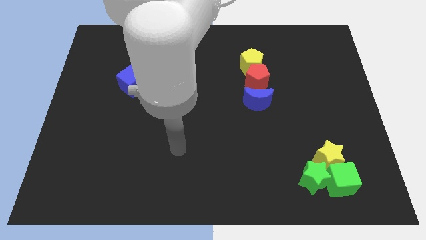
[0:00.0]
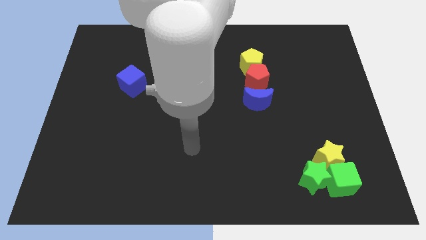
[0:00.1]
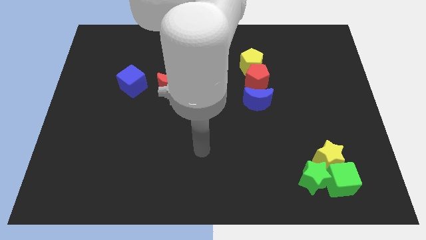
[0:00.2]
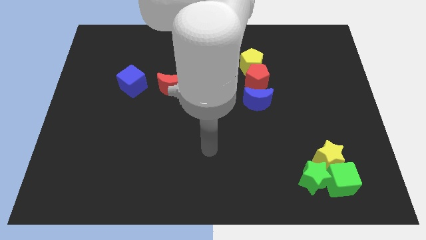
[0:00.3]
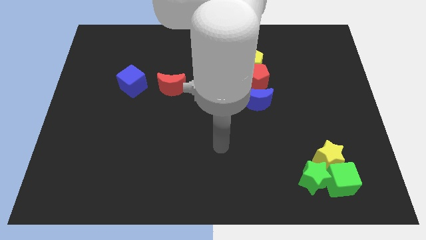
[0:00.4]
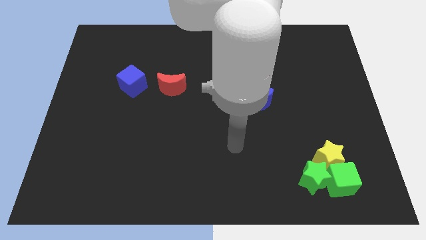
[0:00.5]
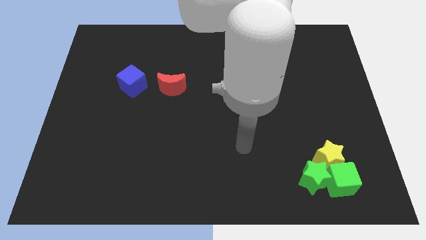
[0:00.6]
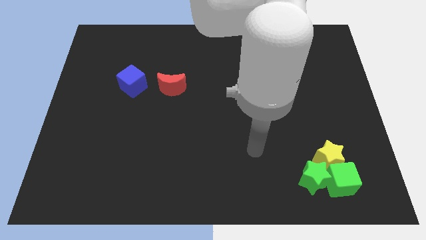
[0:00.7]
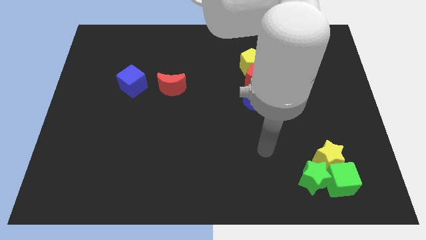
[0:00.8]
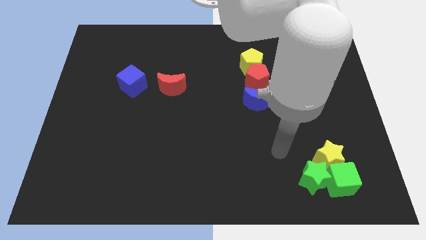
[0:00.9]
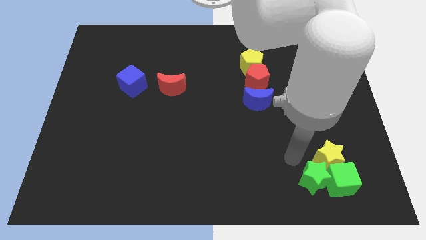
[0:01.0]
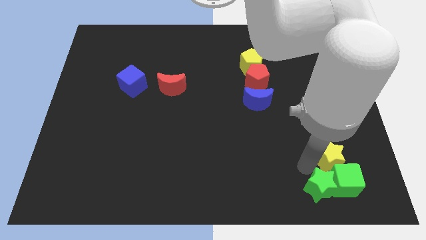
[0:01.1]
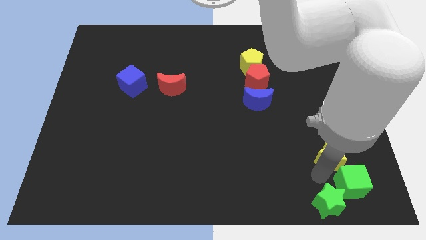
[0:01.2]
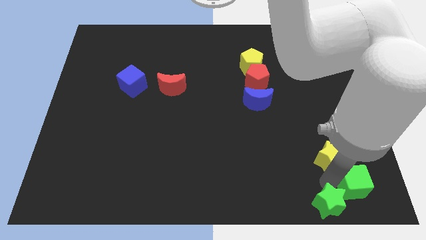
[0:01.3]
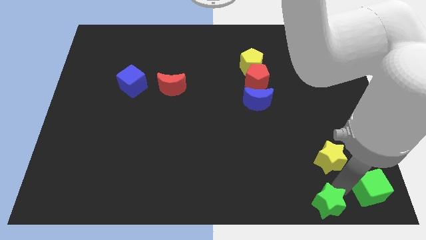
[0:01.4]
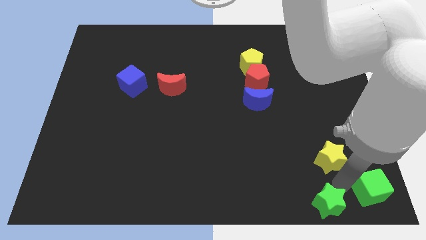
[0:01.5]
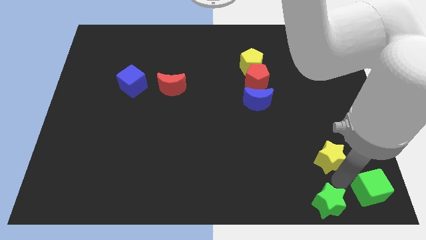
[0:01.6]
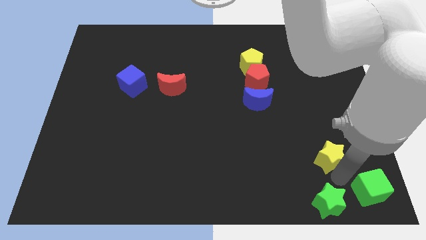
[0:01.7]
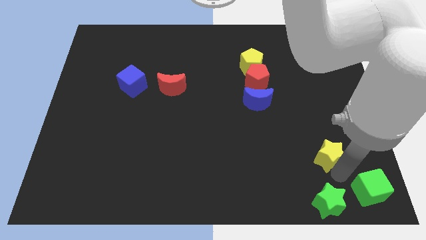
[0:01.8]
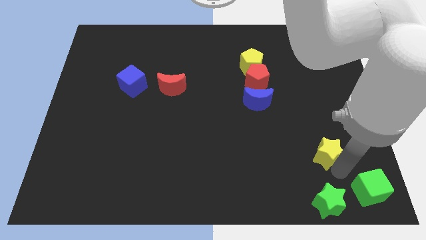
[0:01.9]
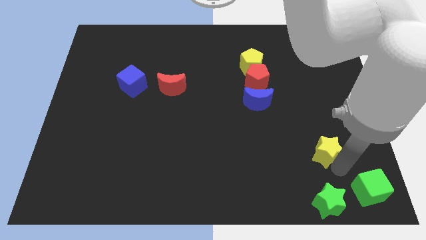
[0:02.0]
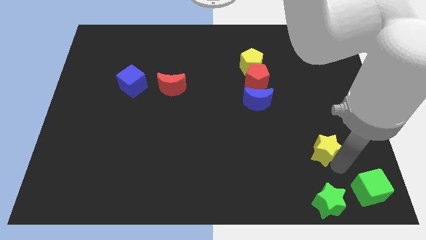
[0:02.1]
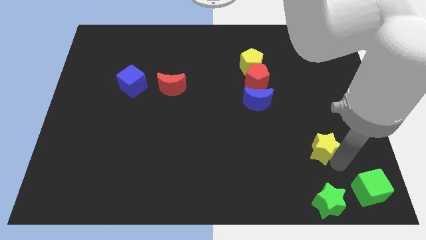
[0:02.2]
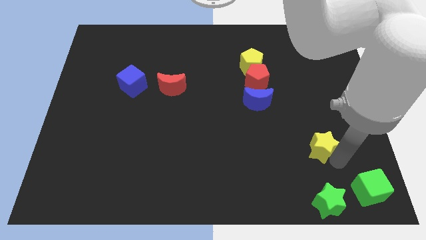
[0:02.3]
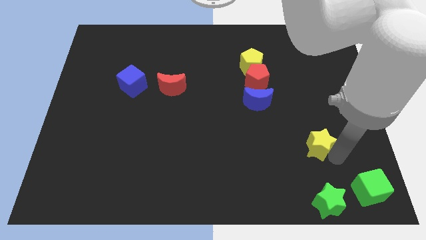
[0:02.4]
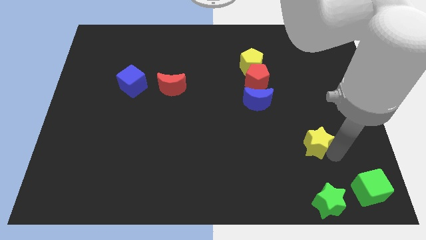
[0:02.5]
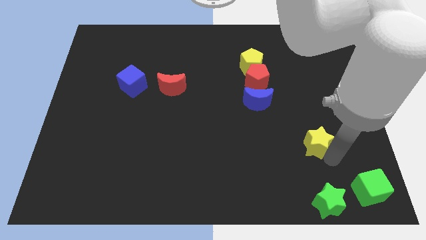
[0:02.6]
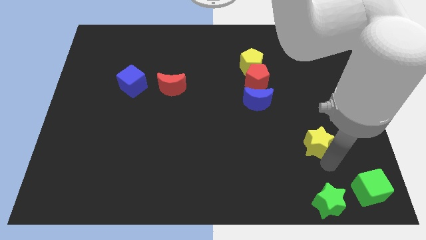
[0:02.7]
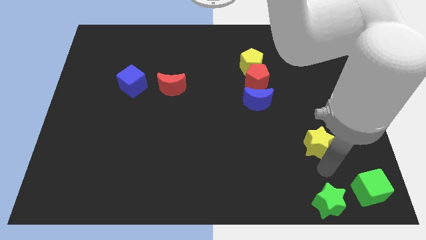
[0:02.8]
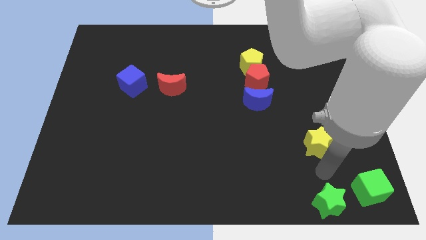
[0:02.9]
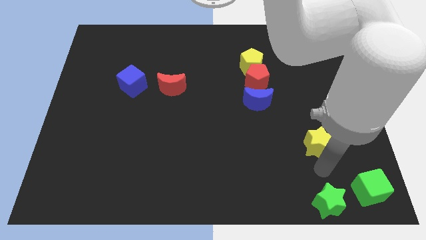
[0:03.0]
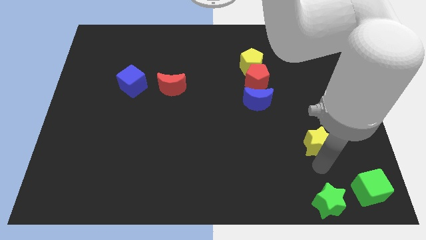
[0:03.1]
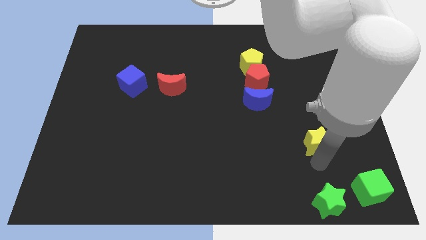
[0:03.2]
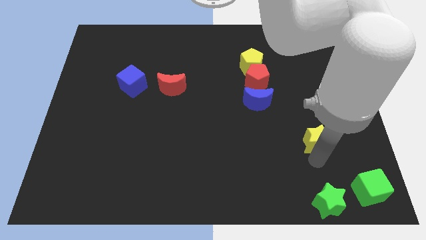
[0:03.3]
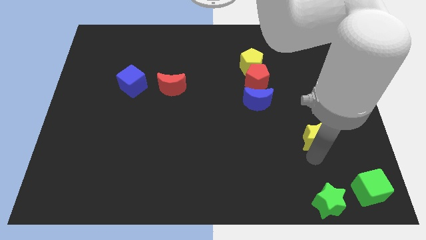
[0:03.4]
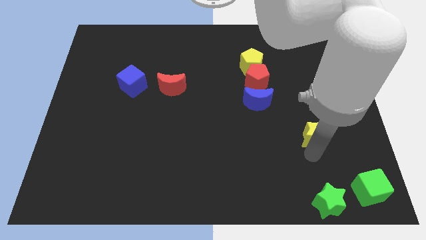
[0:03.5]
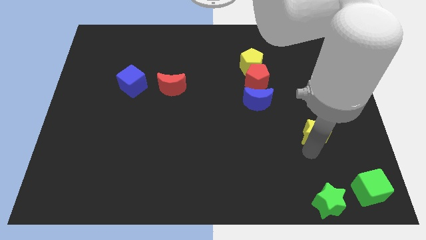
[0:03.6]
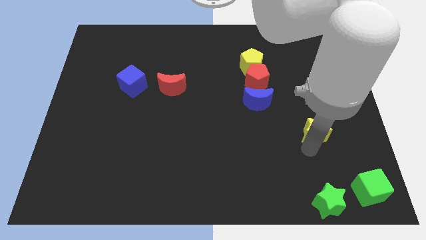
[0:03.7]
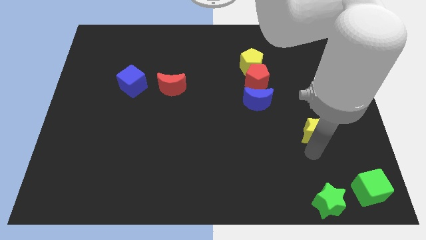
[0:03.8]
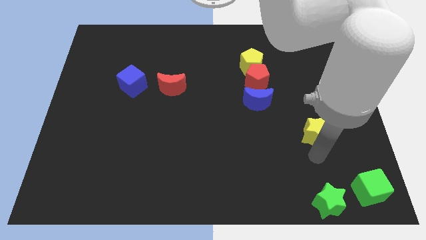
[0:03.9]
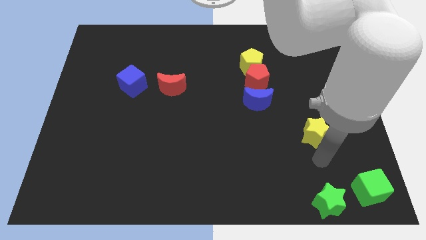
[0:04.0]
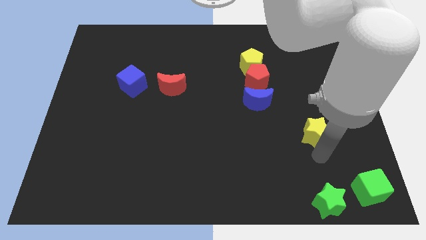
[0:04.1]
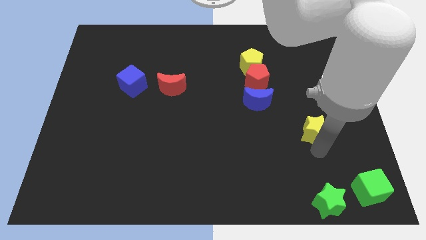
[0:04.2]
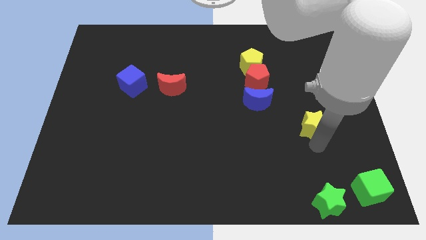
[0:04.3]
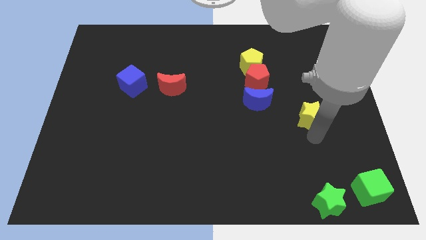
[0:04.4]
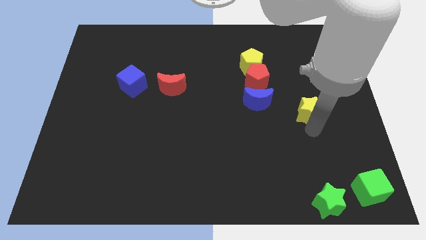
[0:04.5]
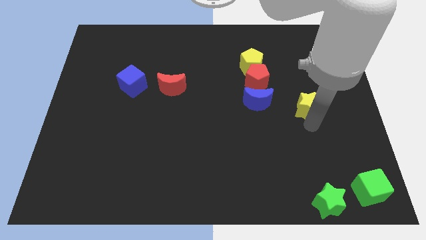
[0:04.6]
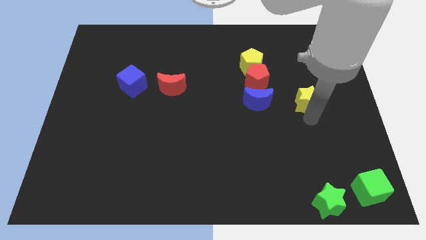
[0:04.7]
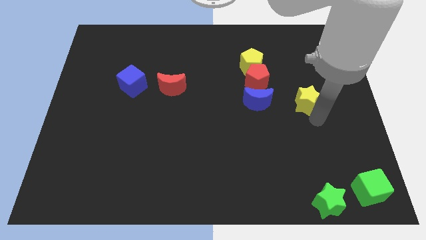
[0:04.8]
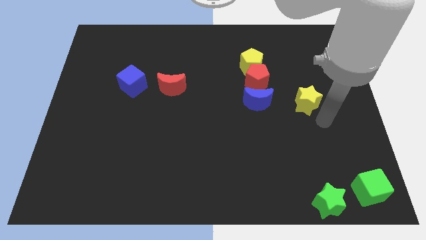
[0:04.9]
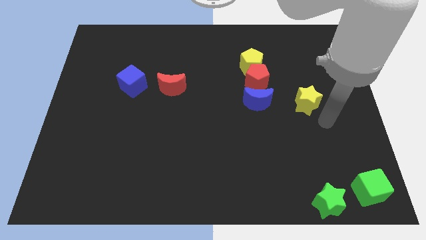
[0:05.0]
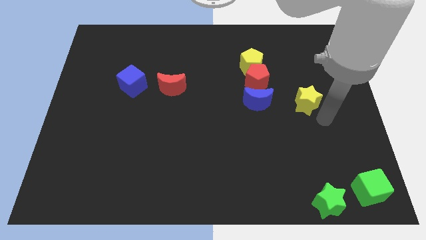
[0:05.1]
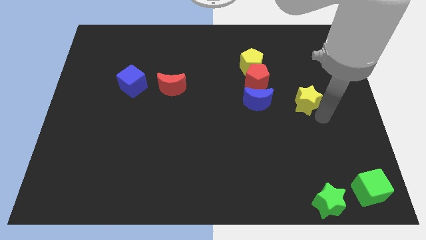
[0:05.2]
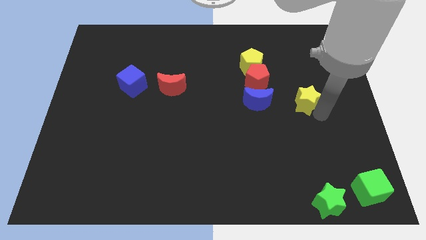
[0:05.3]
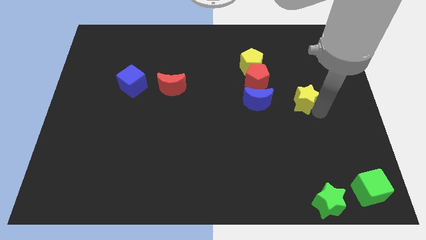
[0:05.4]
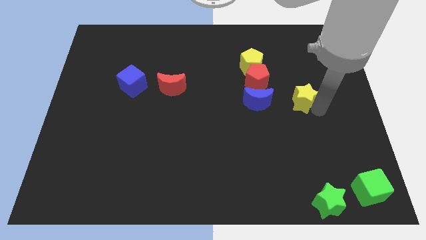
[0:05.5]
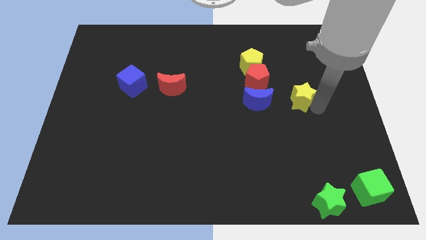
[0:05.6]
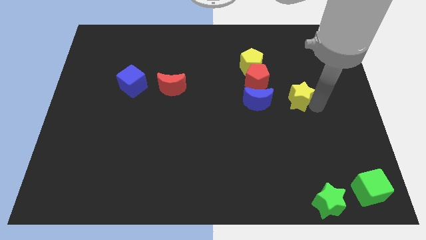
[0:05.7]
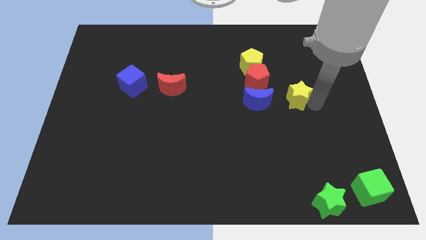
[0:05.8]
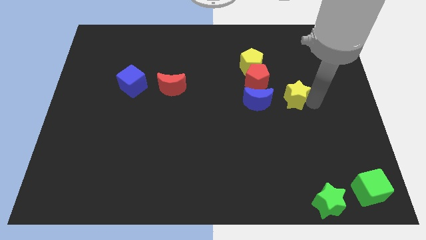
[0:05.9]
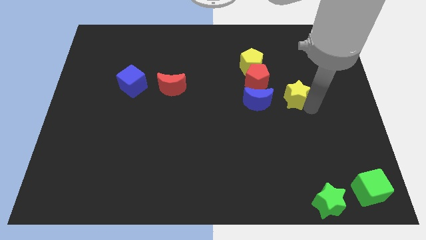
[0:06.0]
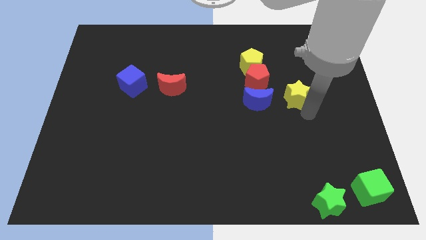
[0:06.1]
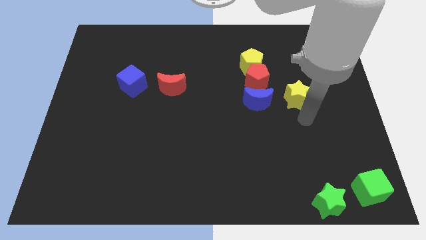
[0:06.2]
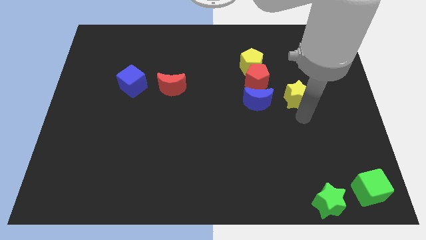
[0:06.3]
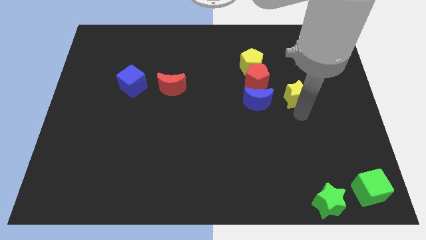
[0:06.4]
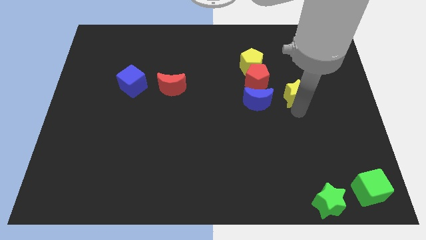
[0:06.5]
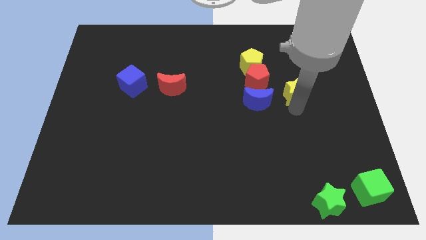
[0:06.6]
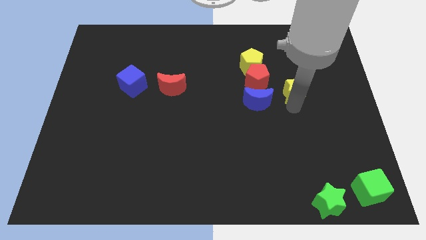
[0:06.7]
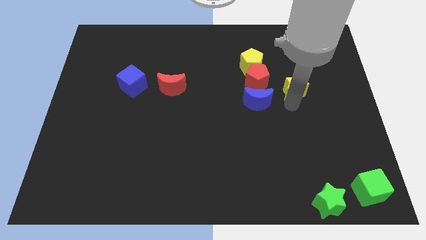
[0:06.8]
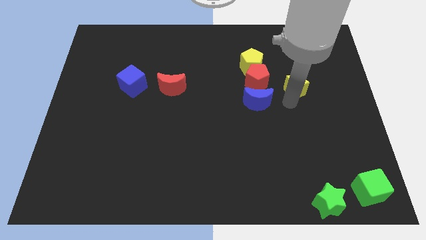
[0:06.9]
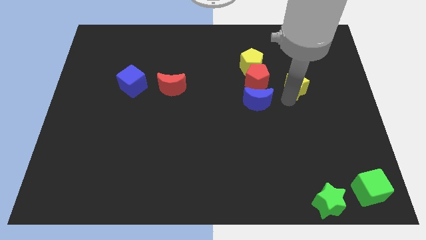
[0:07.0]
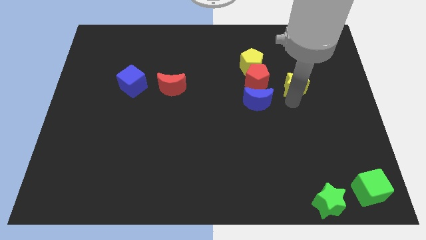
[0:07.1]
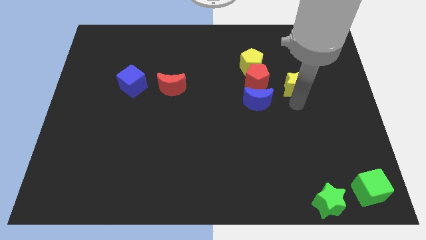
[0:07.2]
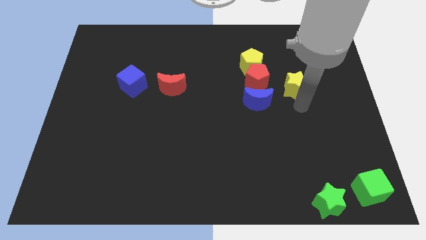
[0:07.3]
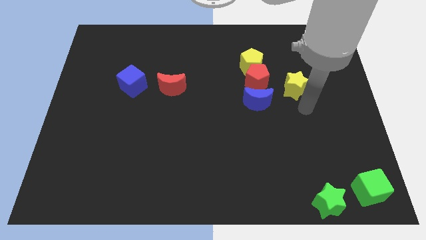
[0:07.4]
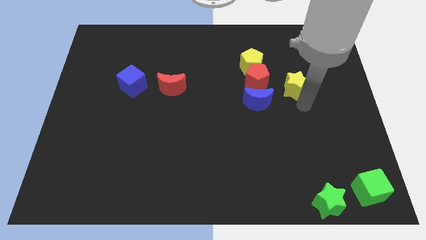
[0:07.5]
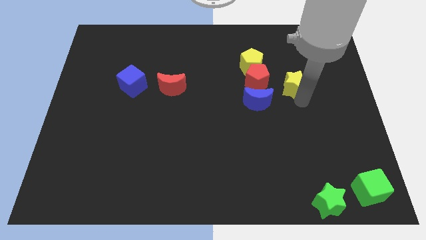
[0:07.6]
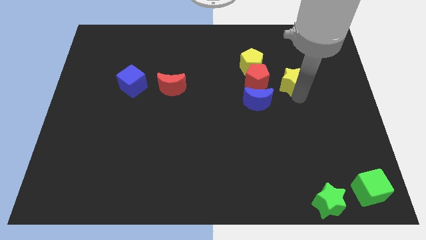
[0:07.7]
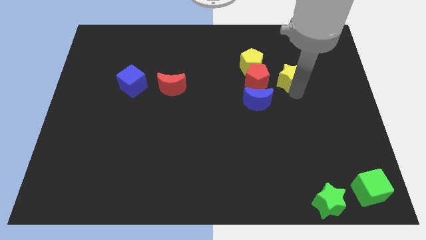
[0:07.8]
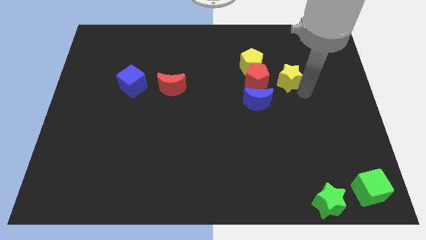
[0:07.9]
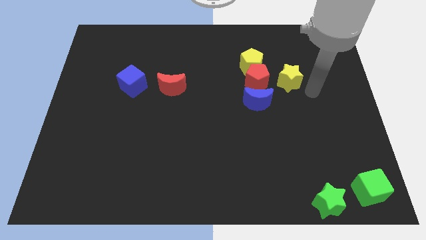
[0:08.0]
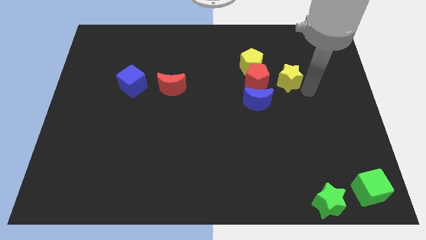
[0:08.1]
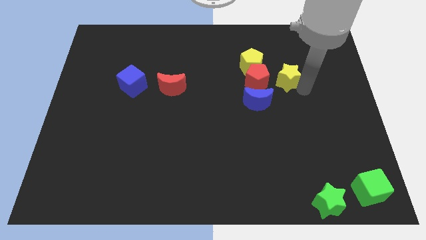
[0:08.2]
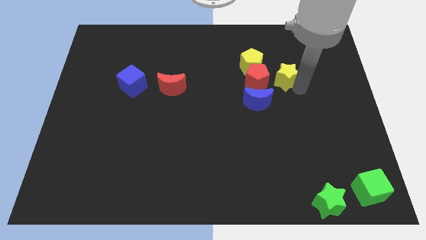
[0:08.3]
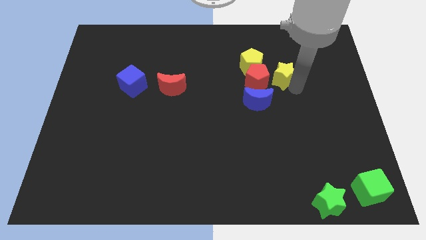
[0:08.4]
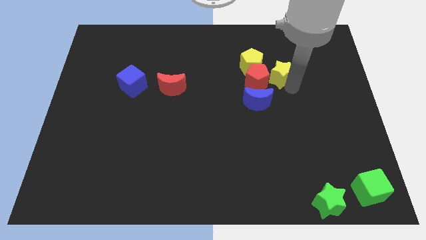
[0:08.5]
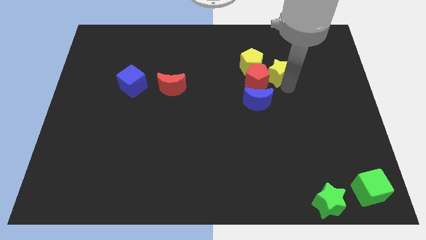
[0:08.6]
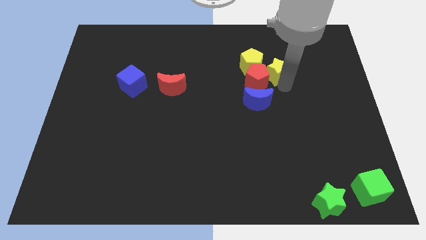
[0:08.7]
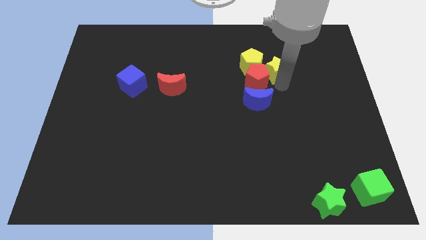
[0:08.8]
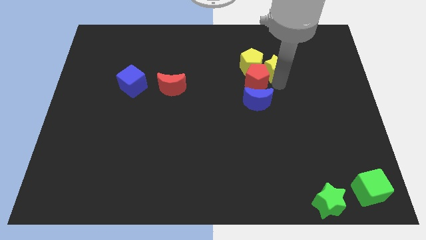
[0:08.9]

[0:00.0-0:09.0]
put the yellow star close to the yellow pentagon
